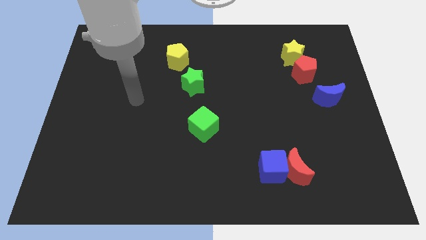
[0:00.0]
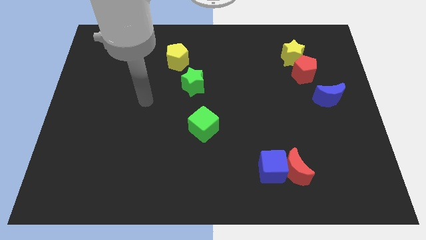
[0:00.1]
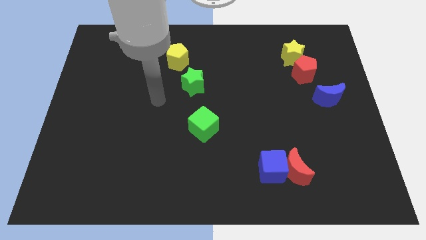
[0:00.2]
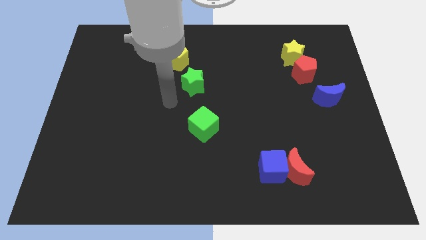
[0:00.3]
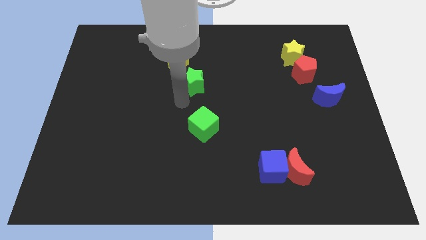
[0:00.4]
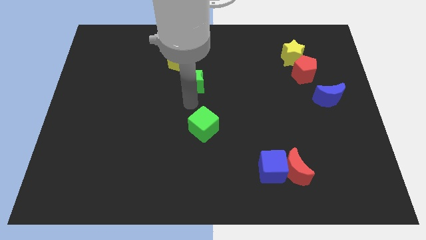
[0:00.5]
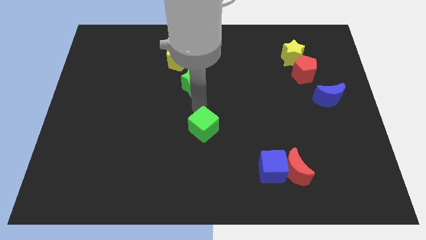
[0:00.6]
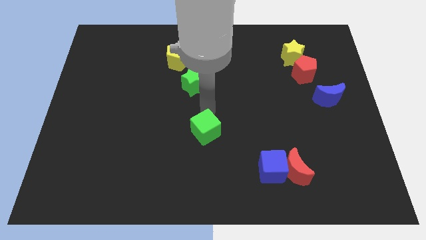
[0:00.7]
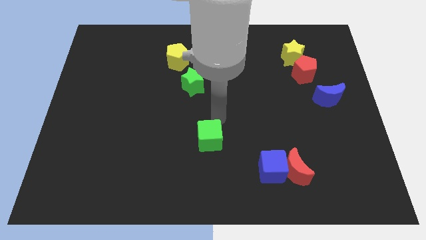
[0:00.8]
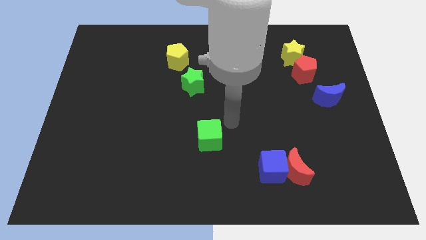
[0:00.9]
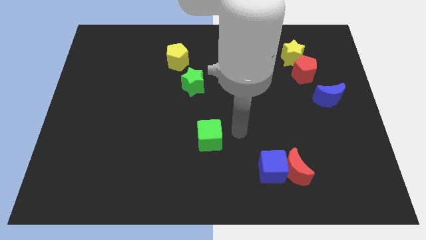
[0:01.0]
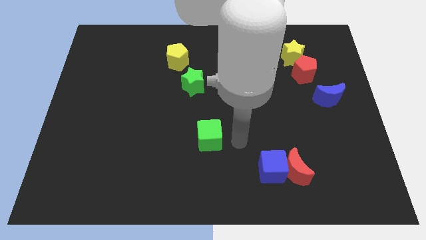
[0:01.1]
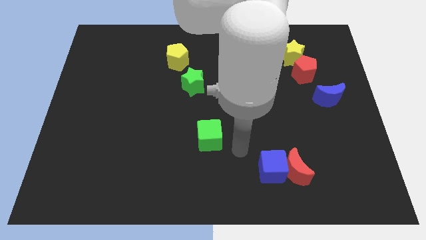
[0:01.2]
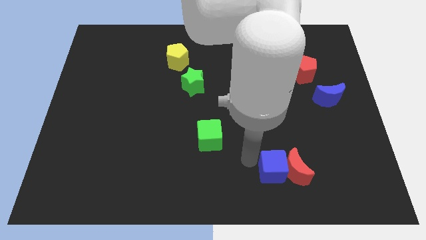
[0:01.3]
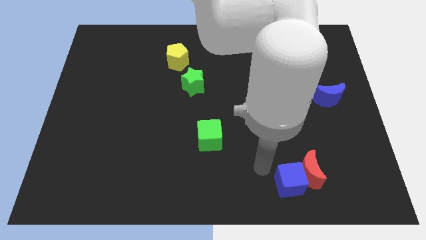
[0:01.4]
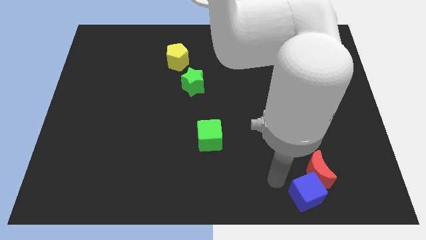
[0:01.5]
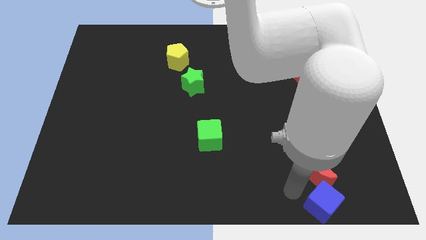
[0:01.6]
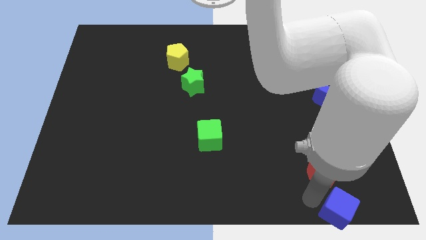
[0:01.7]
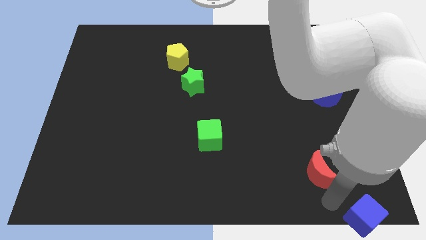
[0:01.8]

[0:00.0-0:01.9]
pull the red moon apart from the blue cube

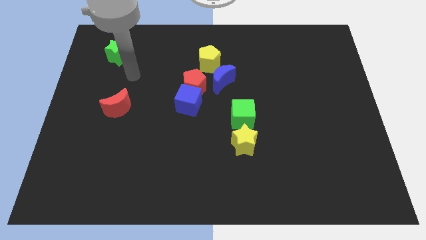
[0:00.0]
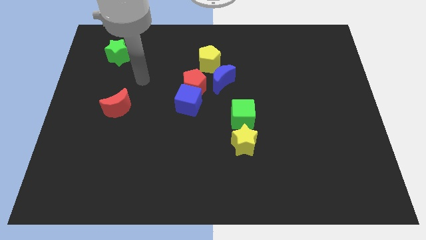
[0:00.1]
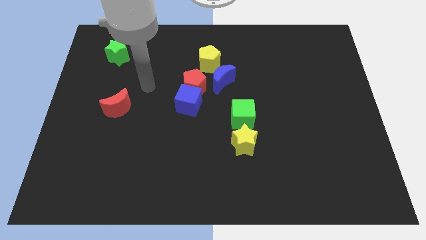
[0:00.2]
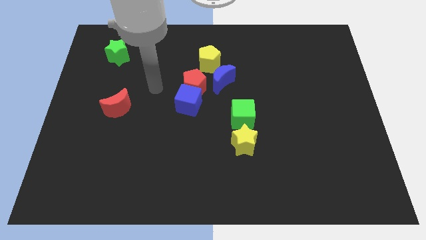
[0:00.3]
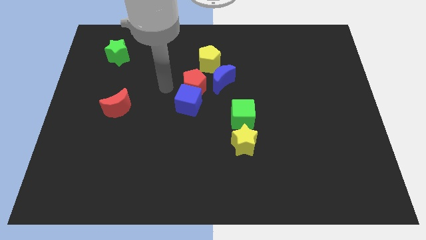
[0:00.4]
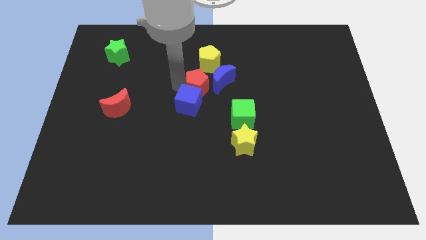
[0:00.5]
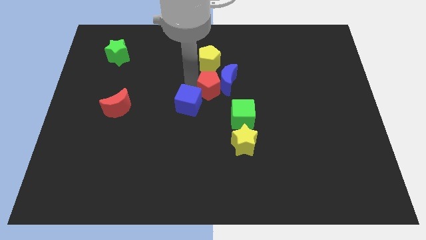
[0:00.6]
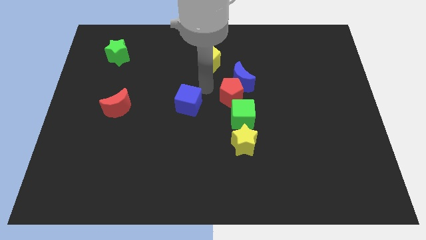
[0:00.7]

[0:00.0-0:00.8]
move the blue cube away from the red pentagon

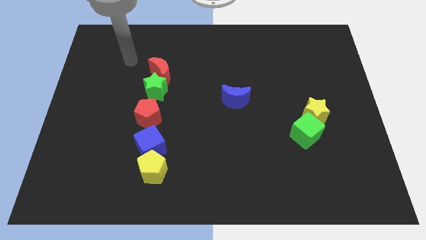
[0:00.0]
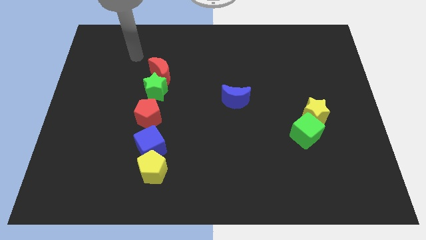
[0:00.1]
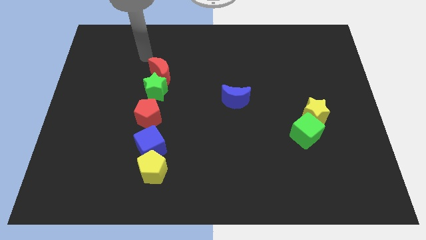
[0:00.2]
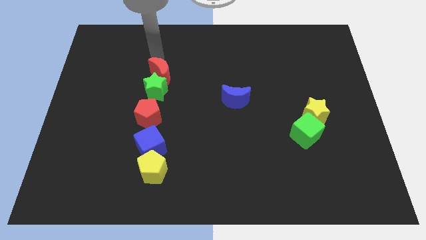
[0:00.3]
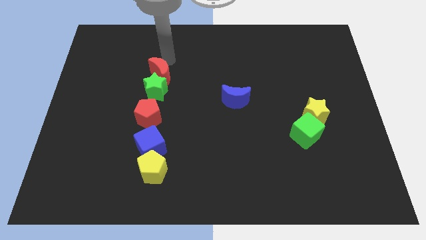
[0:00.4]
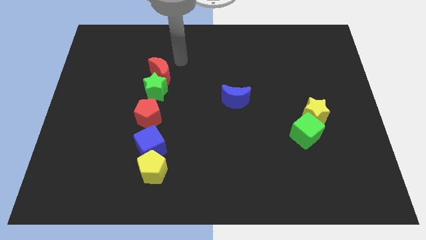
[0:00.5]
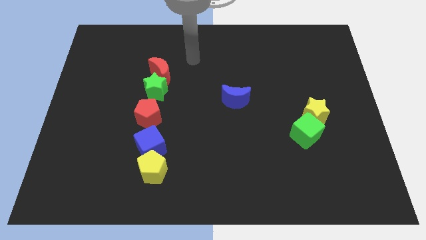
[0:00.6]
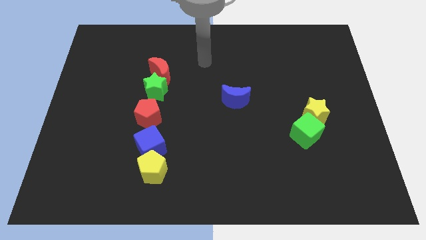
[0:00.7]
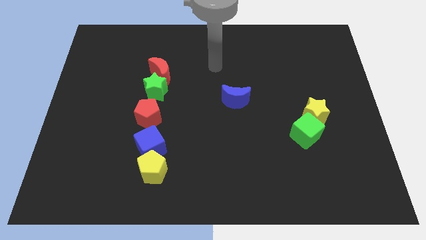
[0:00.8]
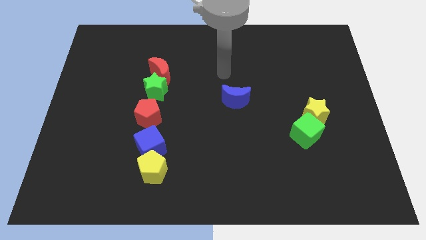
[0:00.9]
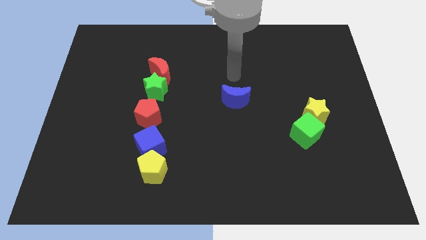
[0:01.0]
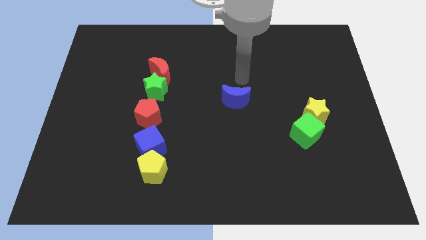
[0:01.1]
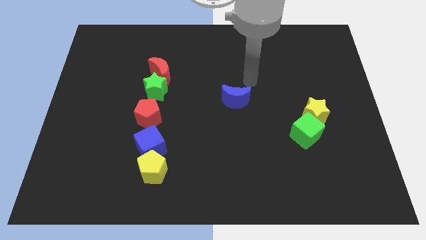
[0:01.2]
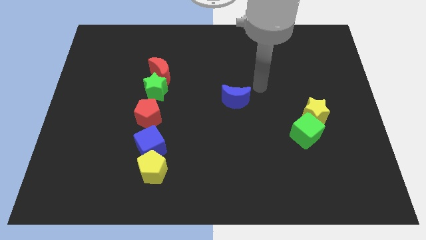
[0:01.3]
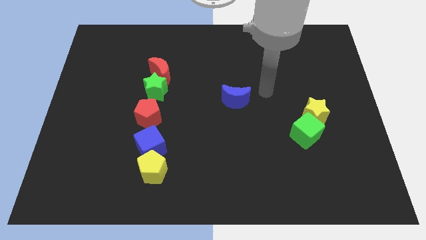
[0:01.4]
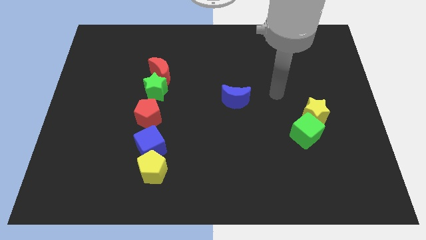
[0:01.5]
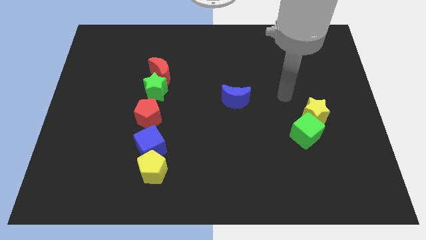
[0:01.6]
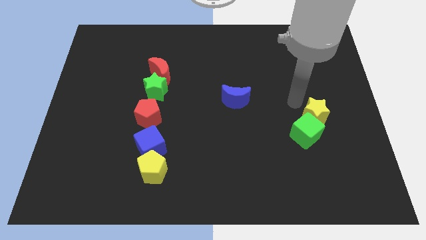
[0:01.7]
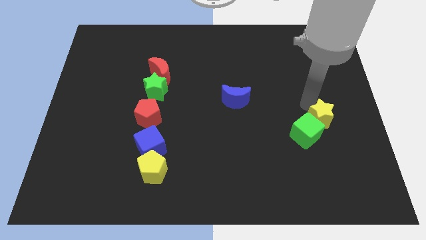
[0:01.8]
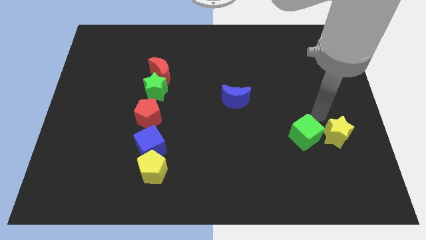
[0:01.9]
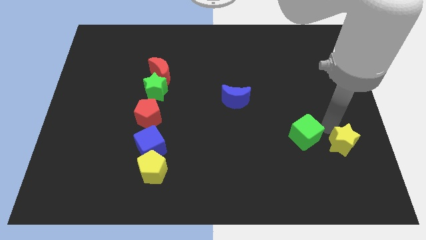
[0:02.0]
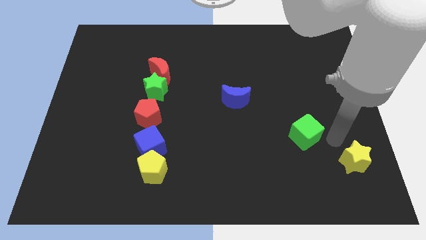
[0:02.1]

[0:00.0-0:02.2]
pull the green cube apart from the yellow star

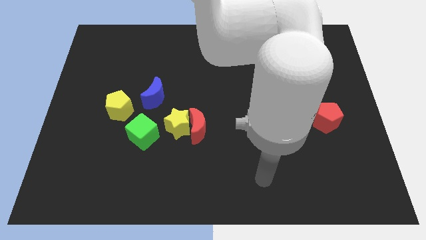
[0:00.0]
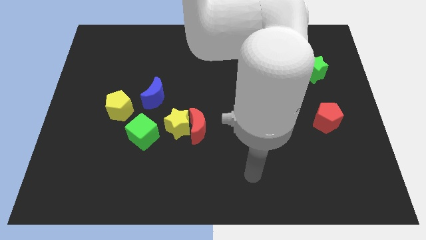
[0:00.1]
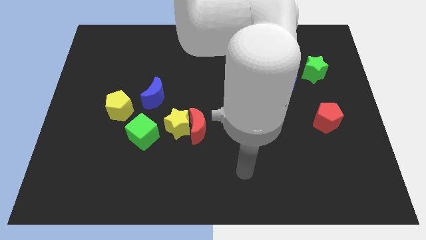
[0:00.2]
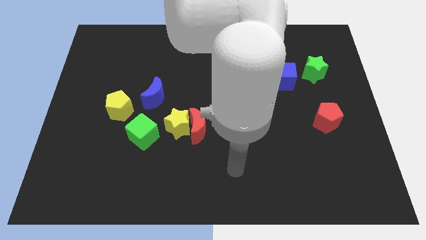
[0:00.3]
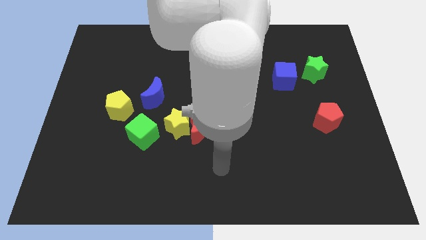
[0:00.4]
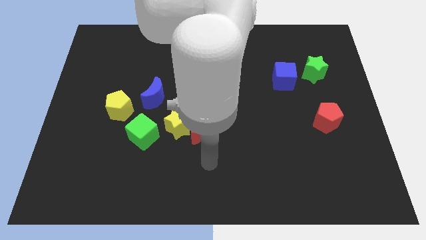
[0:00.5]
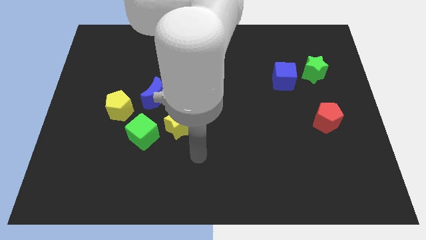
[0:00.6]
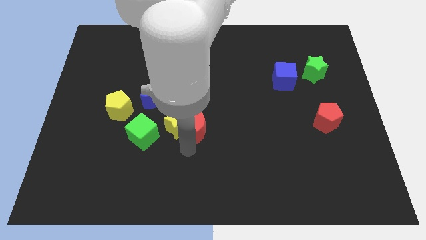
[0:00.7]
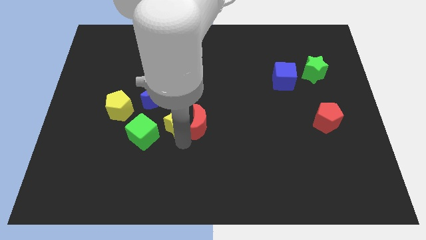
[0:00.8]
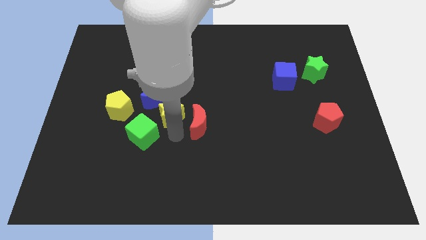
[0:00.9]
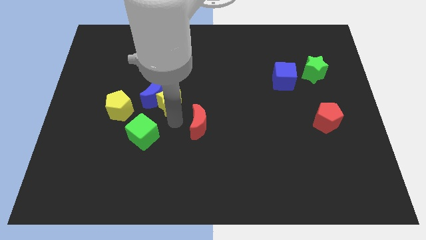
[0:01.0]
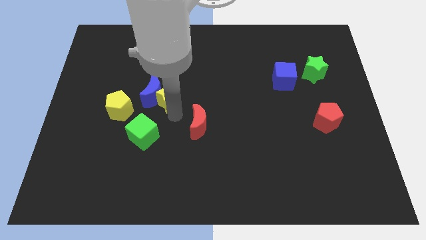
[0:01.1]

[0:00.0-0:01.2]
pull the red moon apart from the yellow star

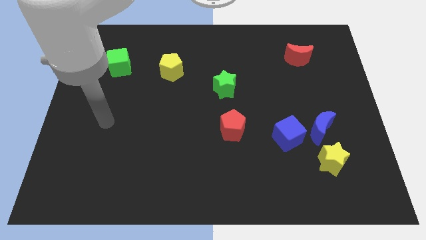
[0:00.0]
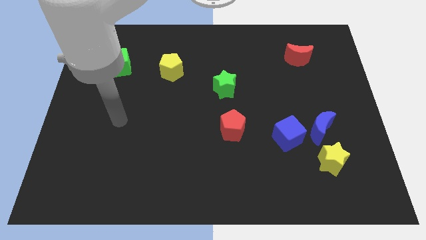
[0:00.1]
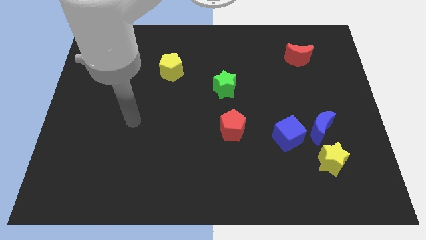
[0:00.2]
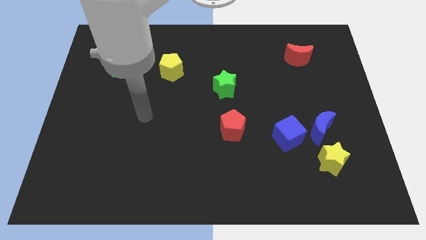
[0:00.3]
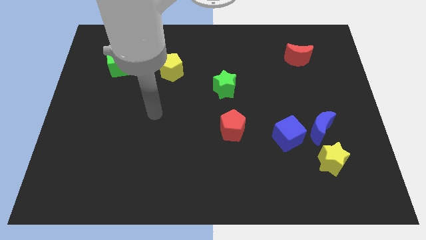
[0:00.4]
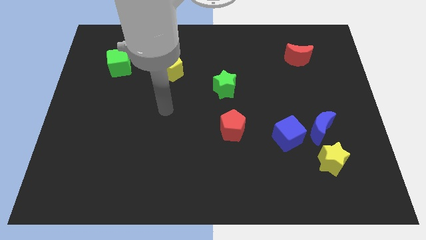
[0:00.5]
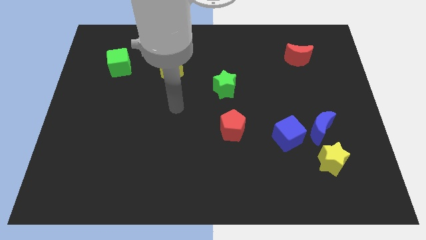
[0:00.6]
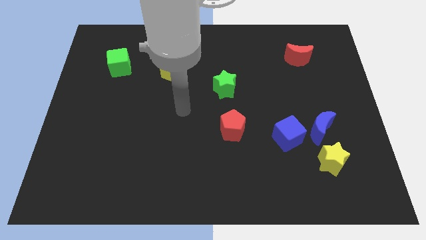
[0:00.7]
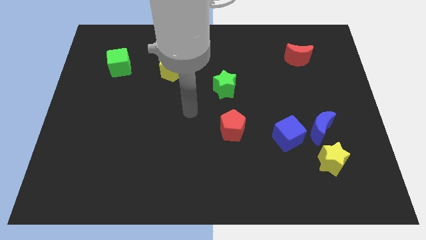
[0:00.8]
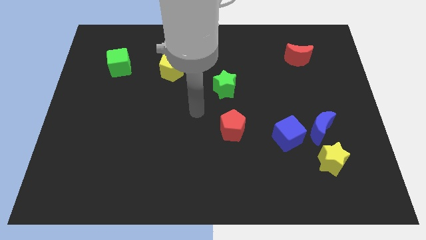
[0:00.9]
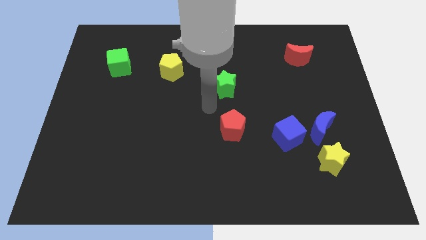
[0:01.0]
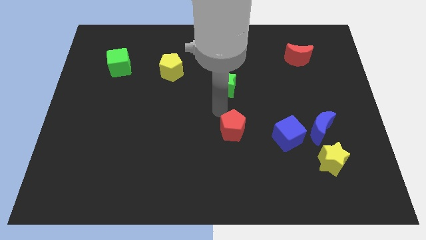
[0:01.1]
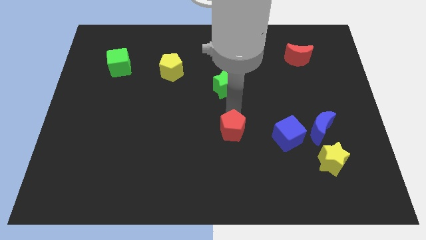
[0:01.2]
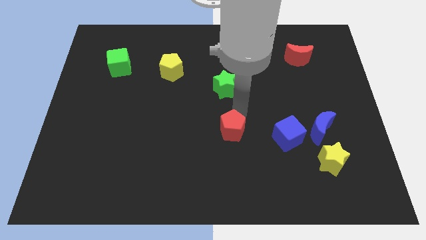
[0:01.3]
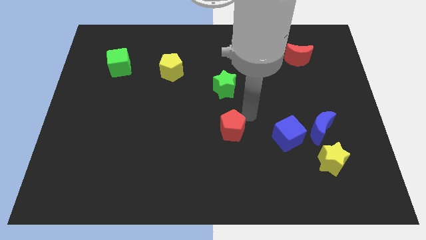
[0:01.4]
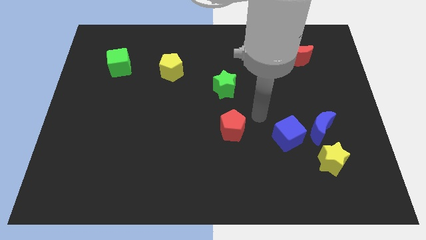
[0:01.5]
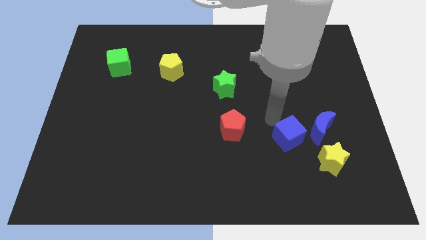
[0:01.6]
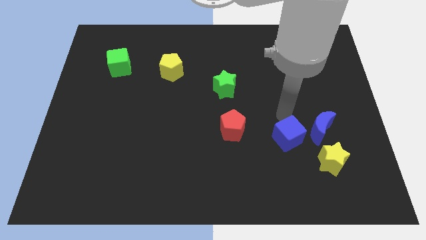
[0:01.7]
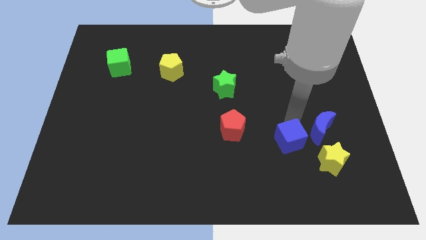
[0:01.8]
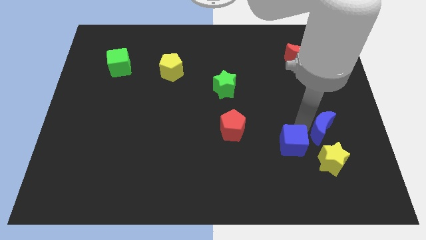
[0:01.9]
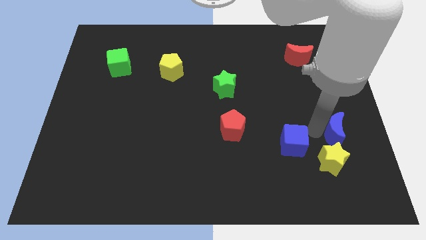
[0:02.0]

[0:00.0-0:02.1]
pull the blue cube apart from the blue moon

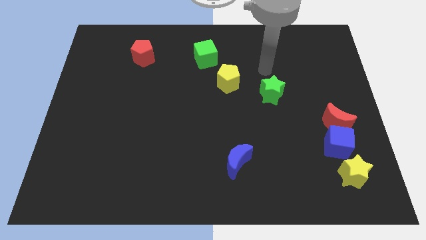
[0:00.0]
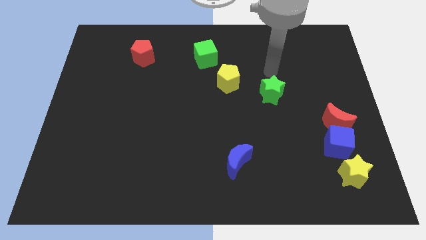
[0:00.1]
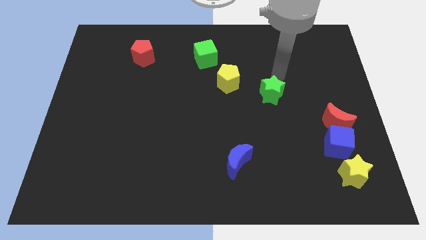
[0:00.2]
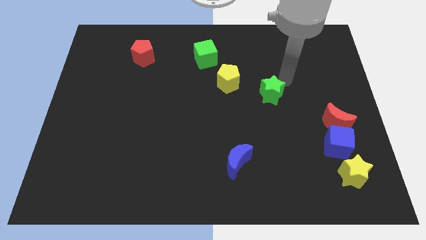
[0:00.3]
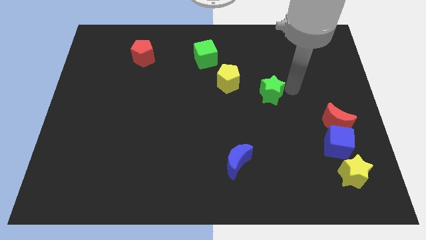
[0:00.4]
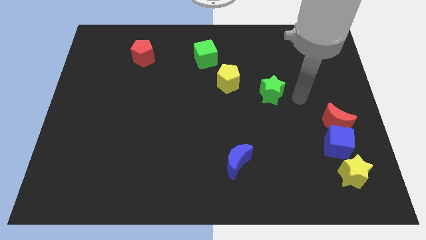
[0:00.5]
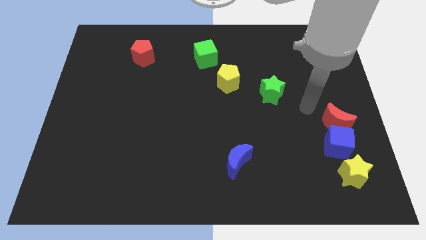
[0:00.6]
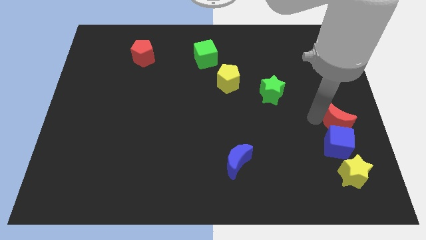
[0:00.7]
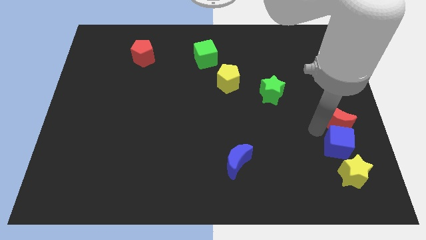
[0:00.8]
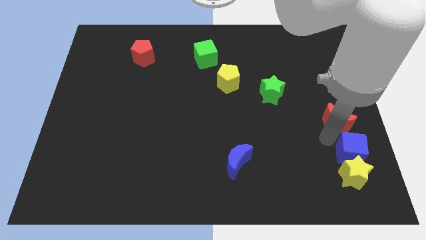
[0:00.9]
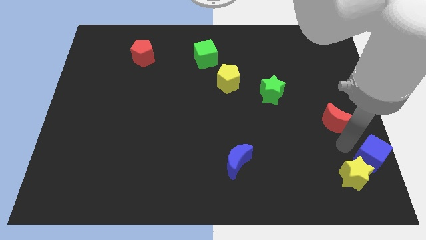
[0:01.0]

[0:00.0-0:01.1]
separate the red moon from the blue cube

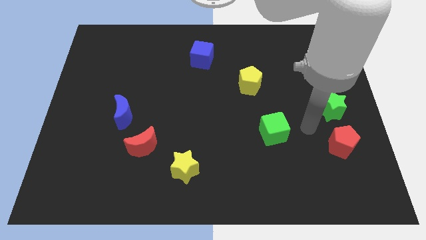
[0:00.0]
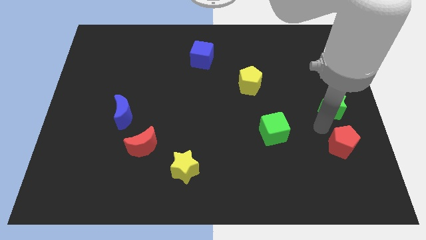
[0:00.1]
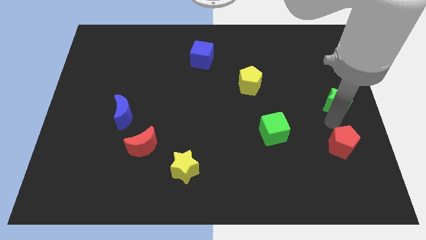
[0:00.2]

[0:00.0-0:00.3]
pull the red pentagon apart from the green star
